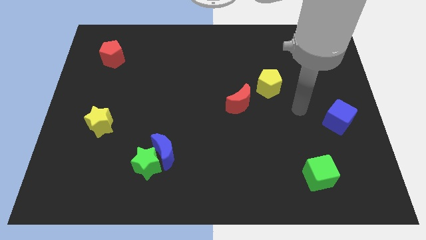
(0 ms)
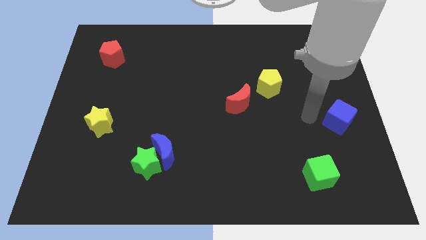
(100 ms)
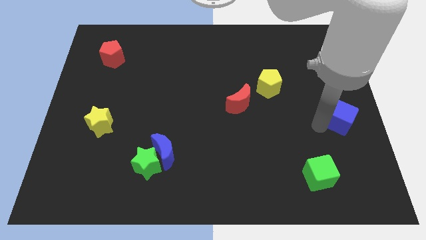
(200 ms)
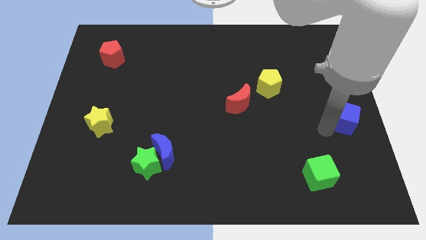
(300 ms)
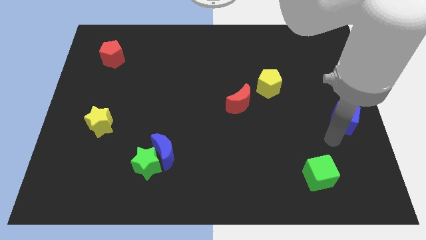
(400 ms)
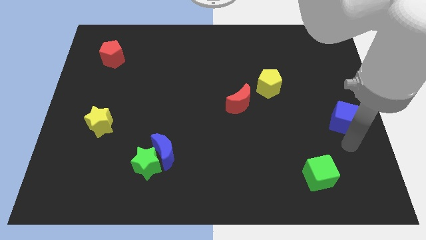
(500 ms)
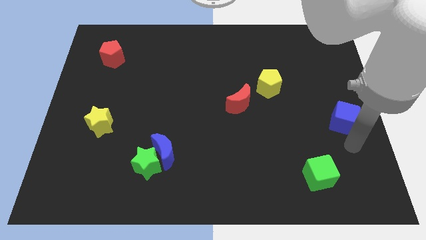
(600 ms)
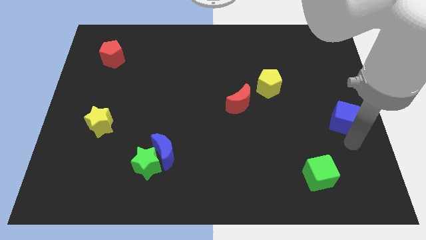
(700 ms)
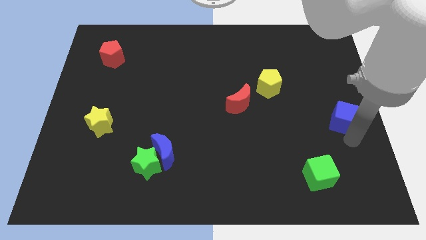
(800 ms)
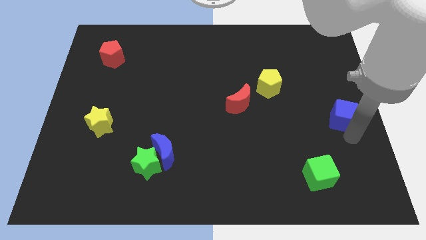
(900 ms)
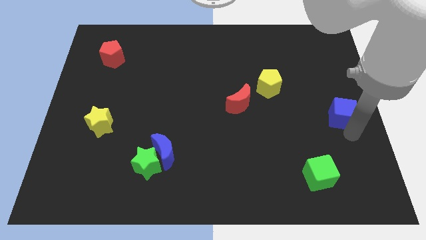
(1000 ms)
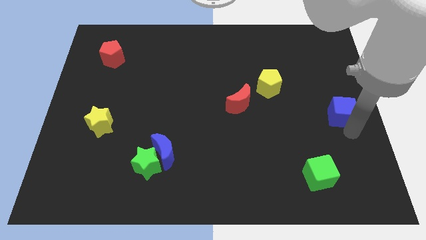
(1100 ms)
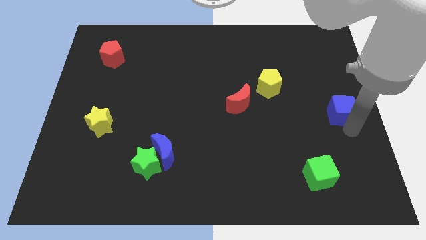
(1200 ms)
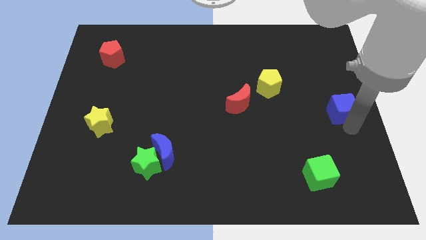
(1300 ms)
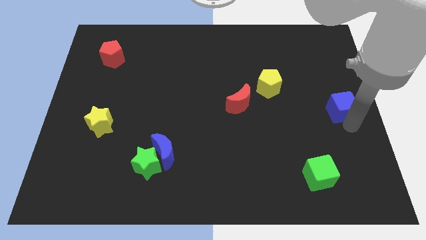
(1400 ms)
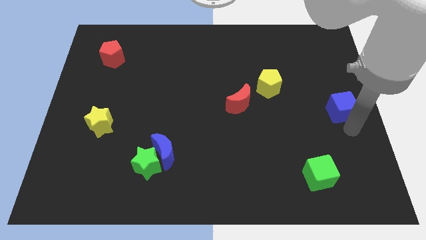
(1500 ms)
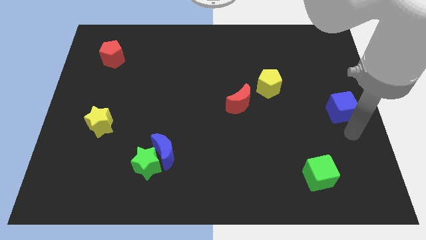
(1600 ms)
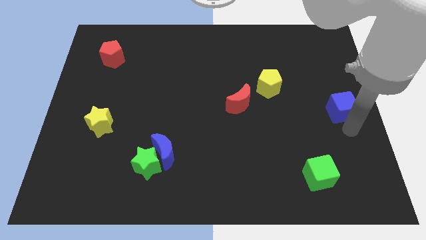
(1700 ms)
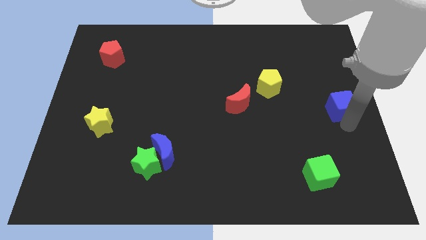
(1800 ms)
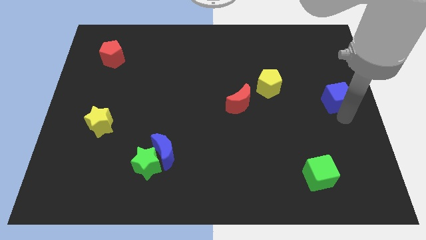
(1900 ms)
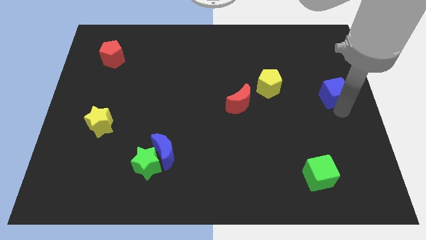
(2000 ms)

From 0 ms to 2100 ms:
slightly push the blue cube up

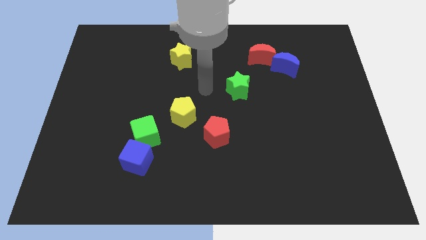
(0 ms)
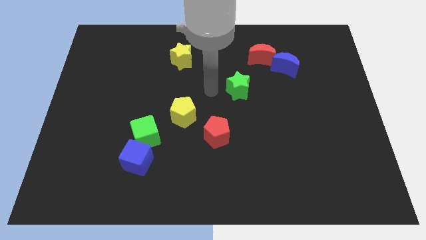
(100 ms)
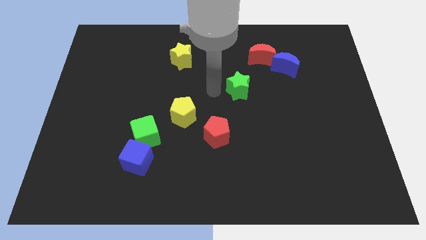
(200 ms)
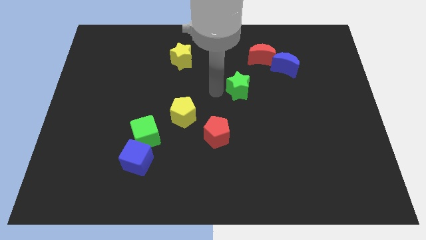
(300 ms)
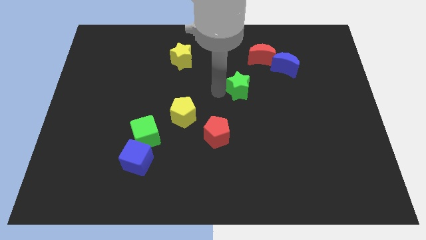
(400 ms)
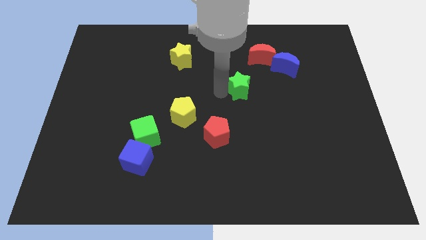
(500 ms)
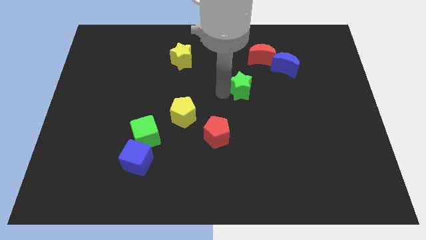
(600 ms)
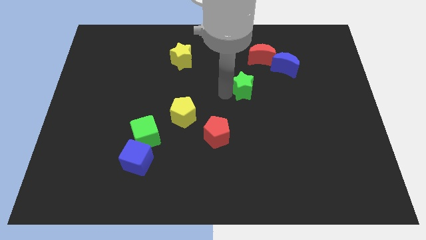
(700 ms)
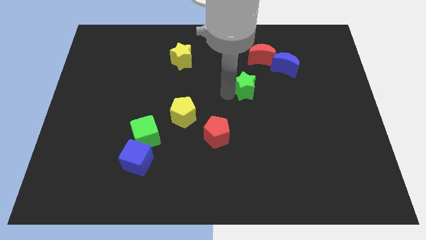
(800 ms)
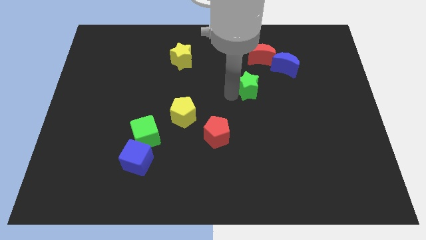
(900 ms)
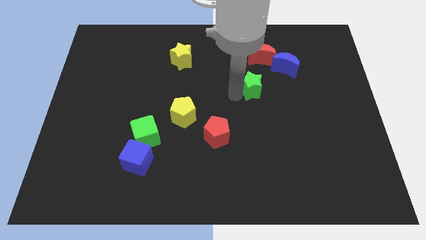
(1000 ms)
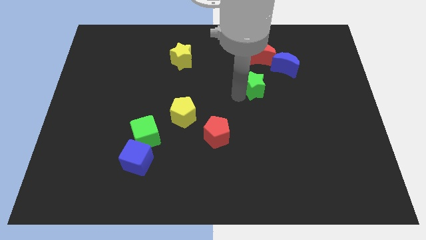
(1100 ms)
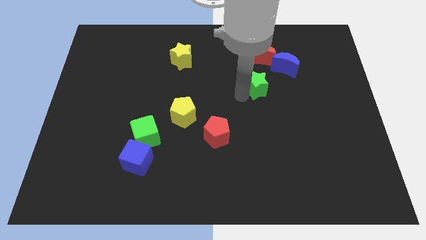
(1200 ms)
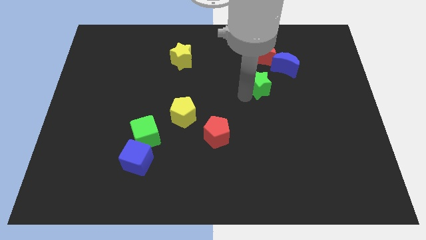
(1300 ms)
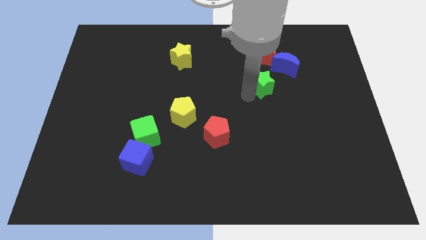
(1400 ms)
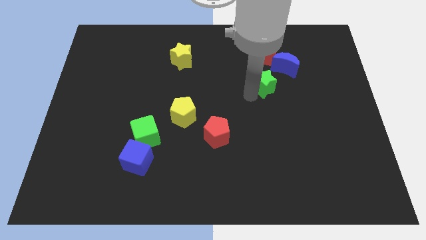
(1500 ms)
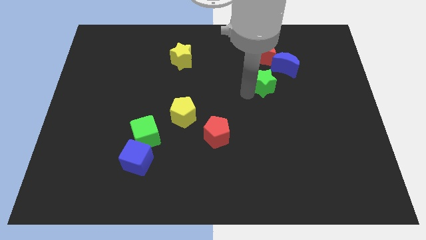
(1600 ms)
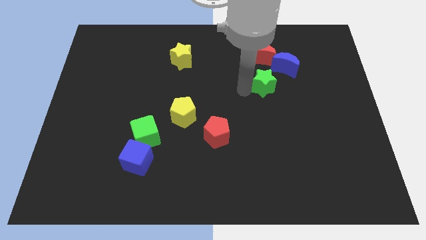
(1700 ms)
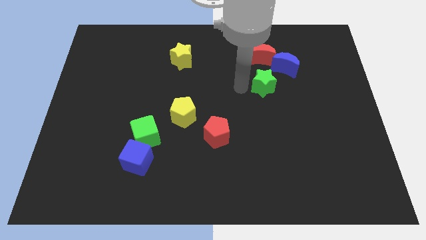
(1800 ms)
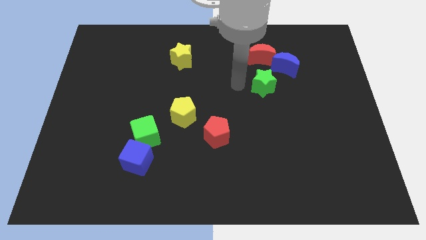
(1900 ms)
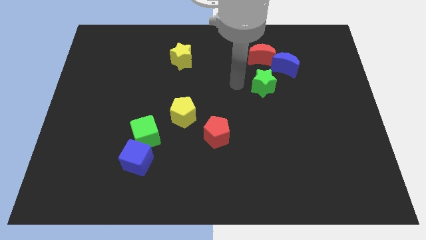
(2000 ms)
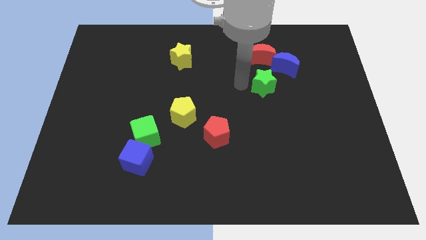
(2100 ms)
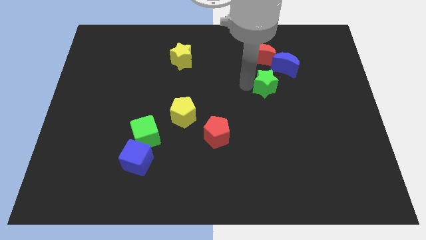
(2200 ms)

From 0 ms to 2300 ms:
move the green star to the right a little bit

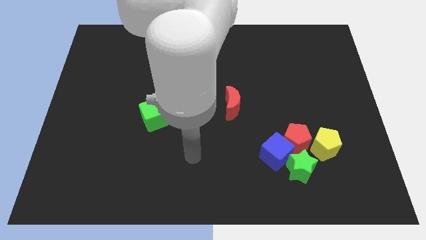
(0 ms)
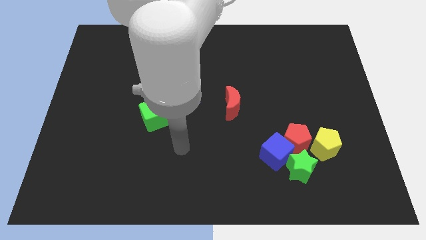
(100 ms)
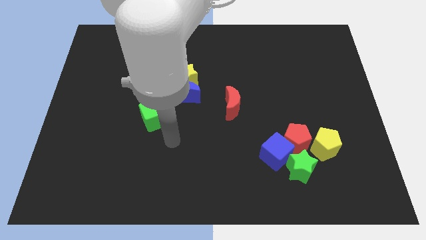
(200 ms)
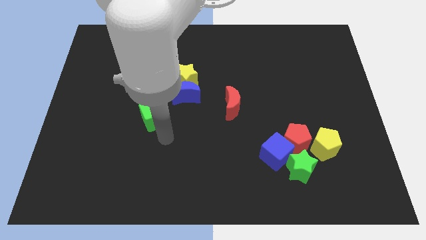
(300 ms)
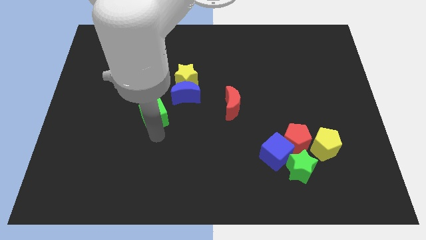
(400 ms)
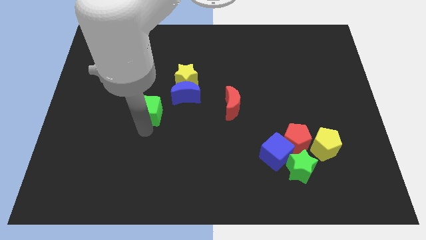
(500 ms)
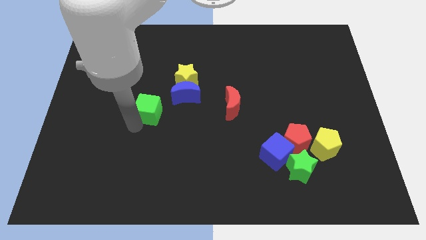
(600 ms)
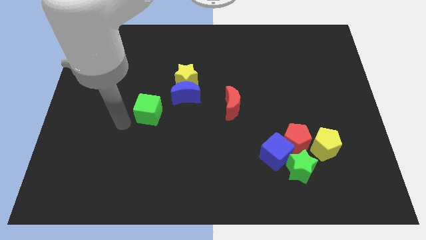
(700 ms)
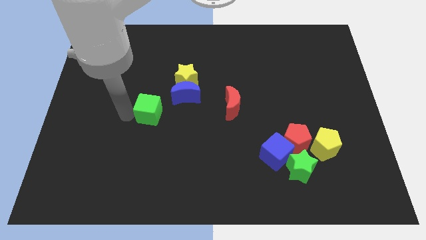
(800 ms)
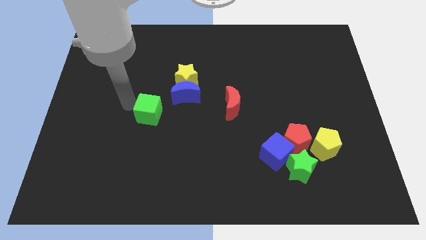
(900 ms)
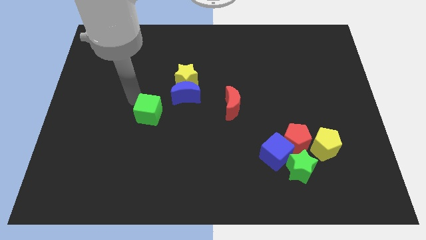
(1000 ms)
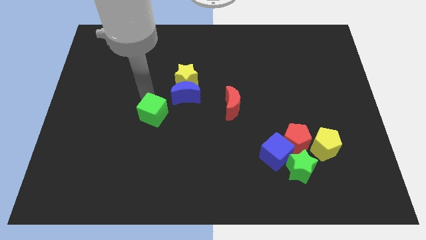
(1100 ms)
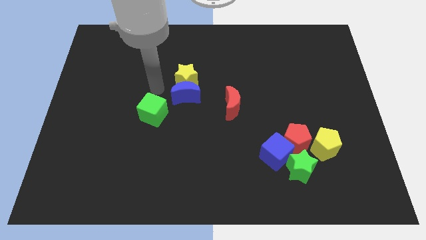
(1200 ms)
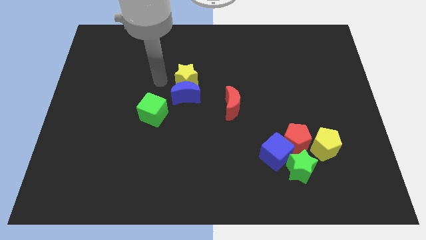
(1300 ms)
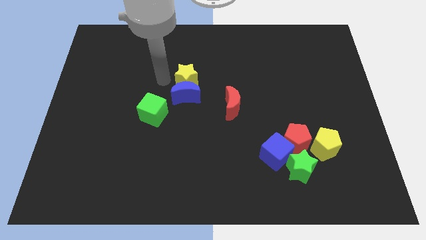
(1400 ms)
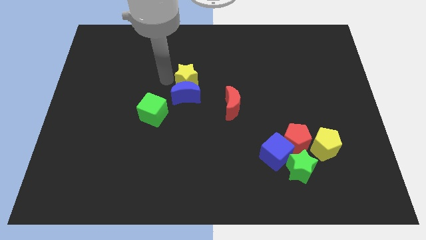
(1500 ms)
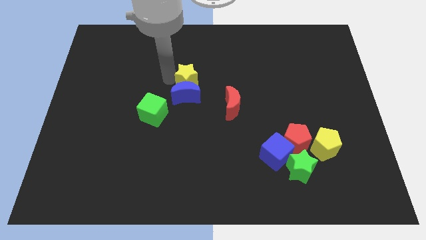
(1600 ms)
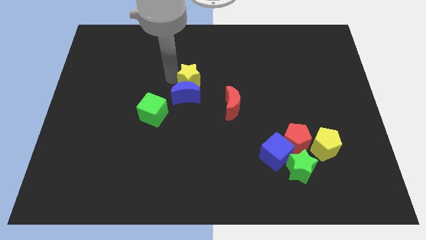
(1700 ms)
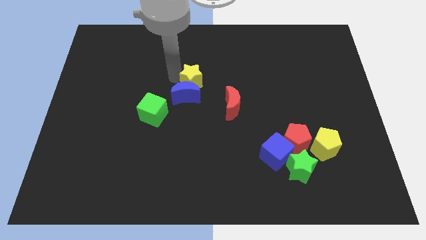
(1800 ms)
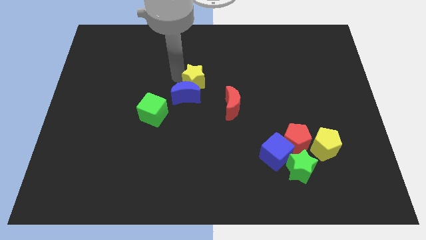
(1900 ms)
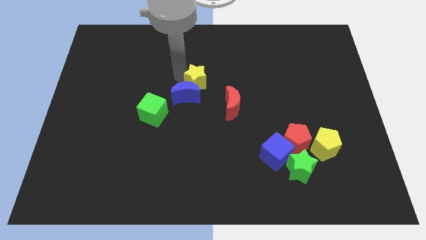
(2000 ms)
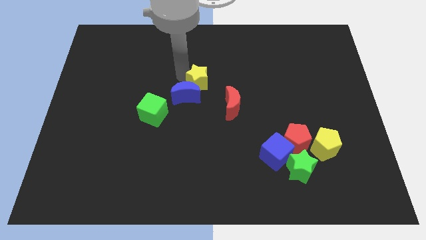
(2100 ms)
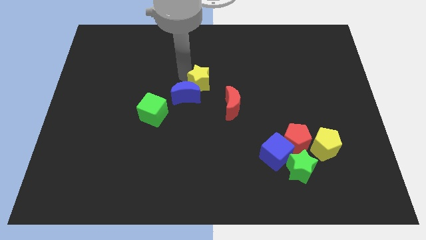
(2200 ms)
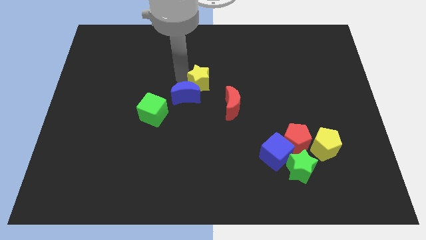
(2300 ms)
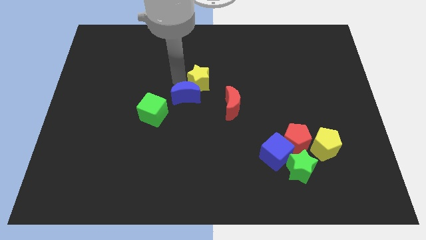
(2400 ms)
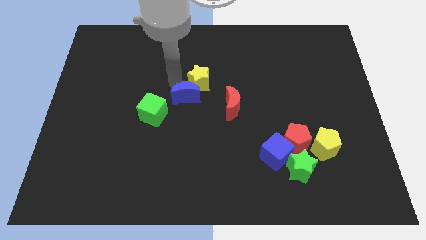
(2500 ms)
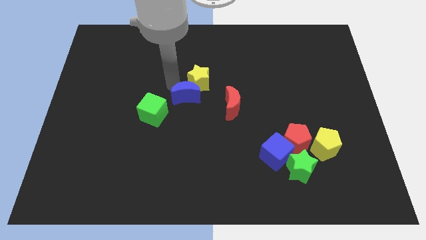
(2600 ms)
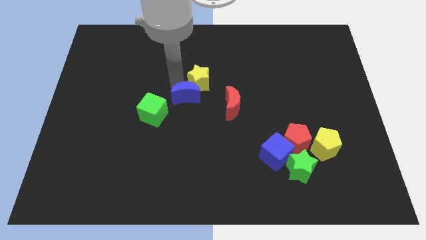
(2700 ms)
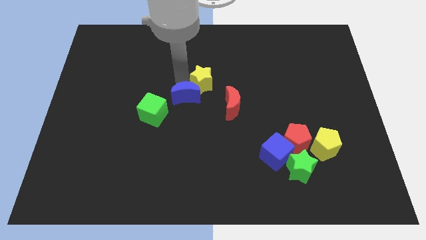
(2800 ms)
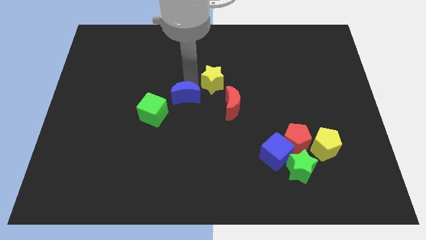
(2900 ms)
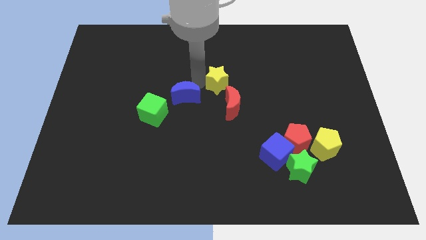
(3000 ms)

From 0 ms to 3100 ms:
slide the yellow star slightly right

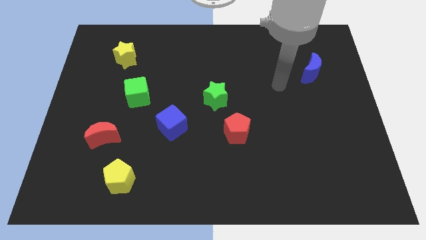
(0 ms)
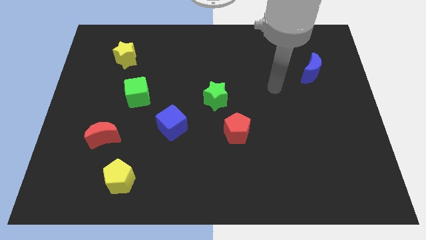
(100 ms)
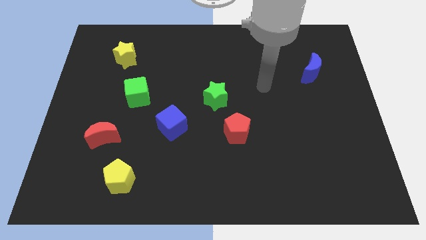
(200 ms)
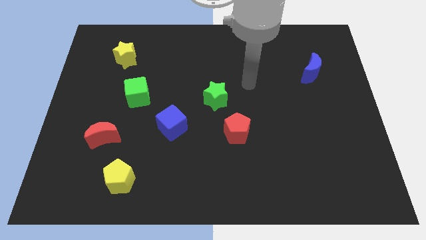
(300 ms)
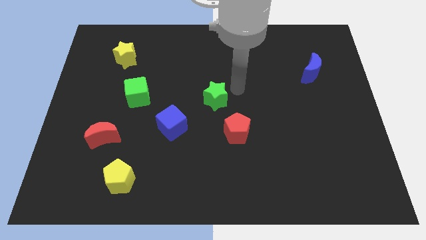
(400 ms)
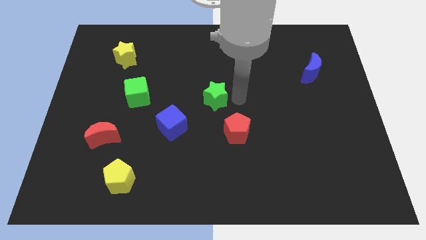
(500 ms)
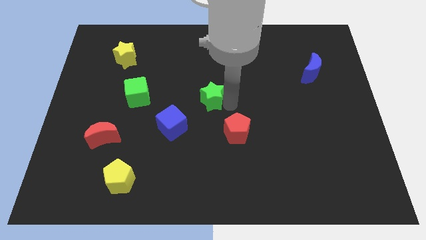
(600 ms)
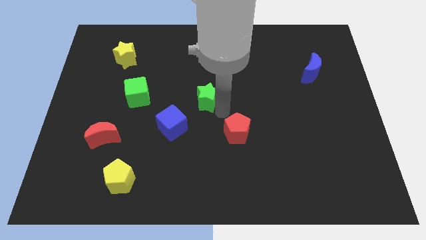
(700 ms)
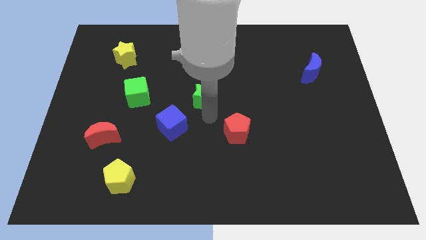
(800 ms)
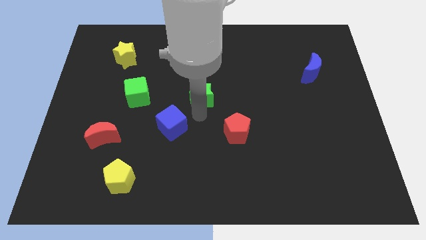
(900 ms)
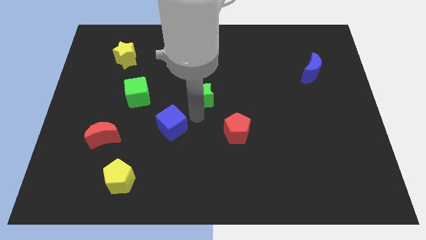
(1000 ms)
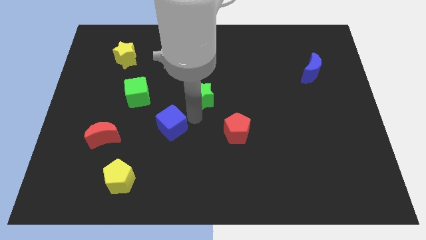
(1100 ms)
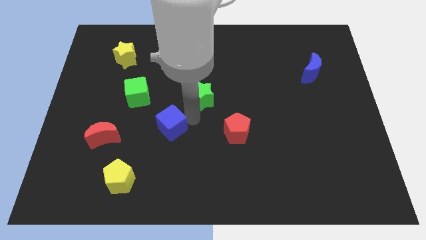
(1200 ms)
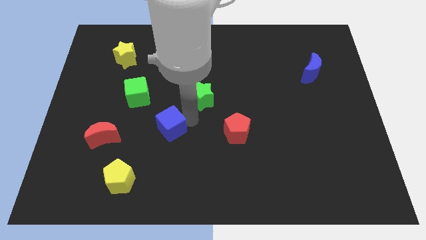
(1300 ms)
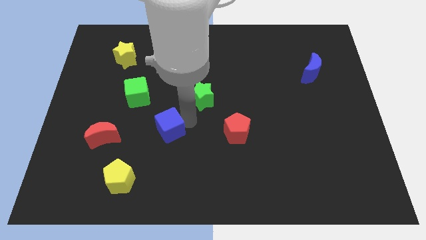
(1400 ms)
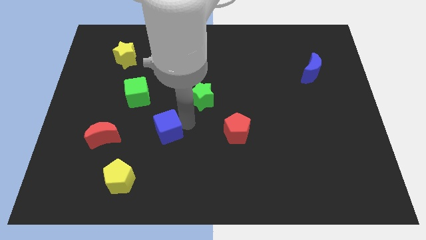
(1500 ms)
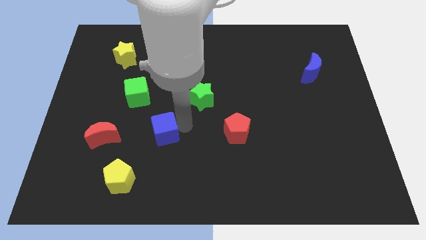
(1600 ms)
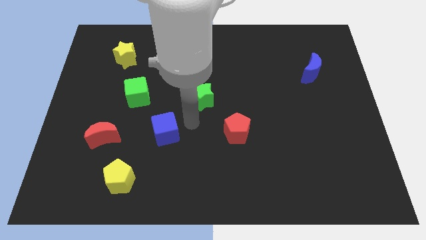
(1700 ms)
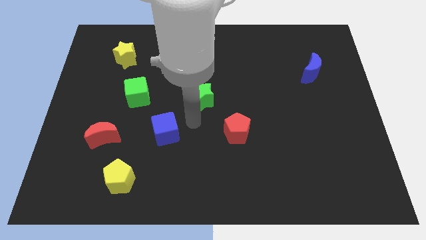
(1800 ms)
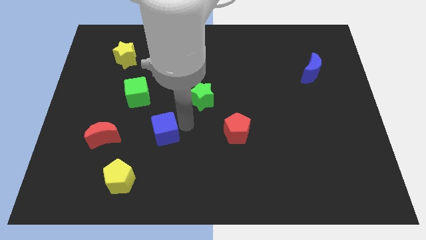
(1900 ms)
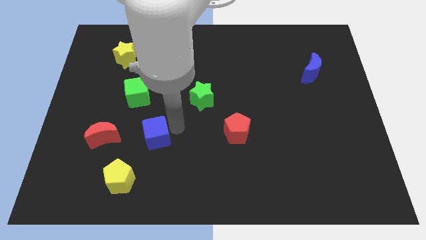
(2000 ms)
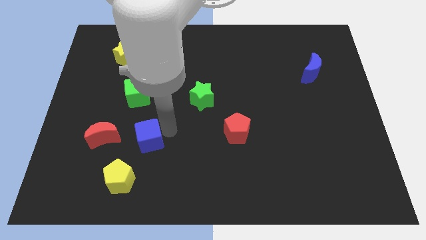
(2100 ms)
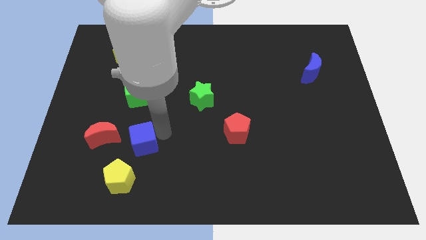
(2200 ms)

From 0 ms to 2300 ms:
slightly slide the blue cube downwards and then to the left
